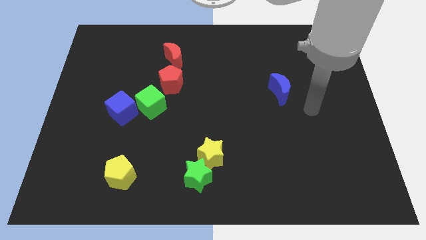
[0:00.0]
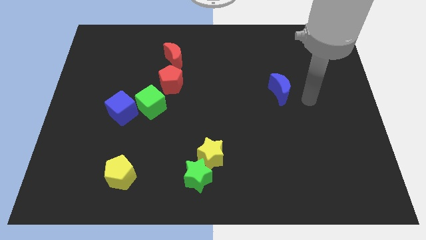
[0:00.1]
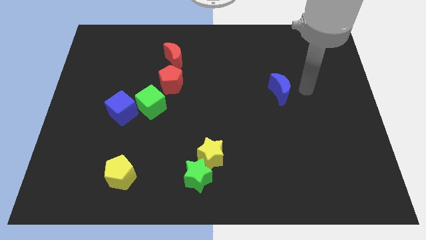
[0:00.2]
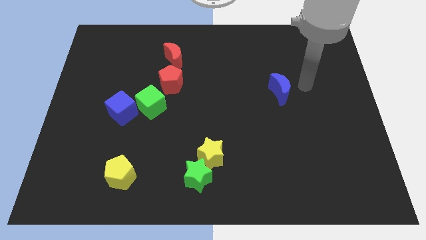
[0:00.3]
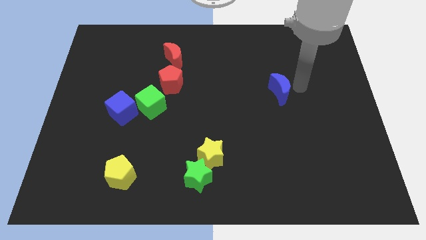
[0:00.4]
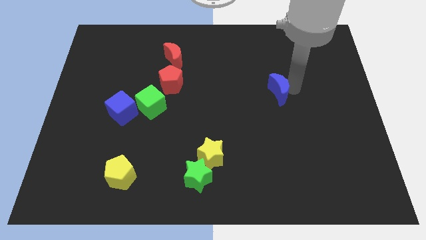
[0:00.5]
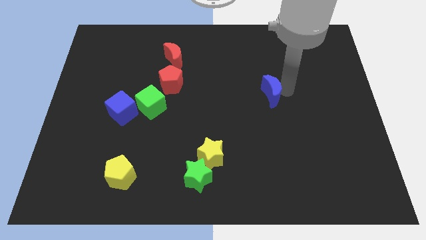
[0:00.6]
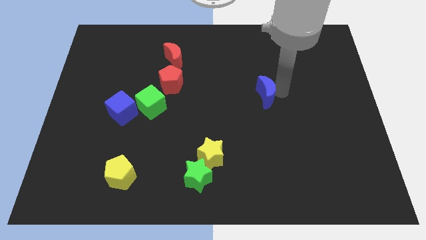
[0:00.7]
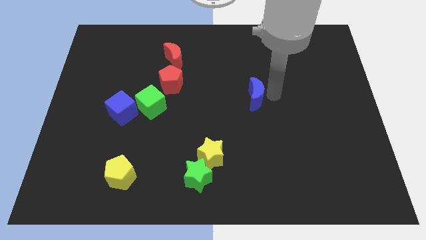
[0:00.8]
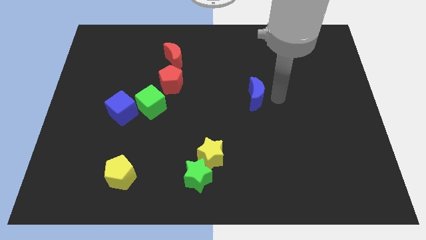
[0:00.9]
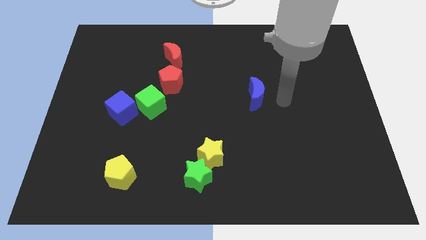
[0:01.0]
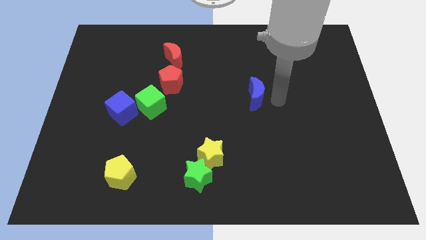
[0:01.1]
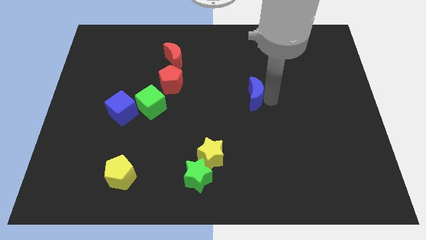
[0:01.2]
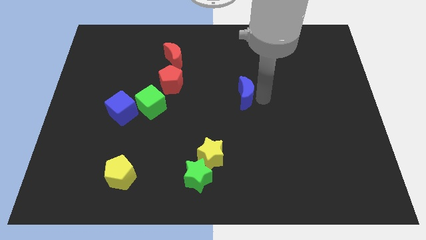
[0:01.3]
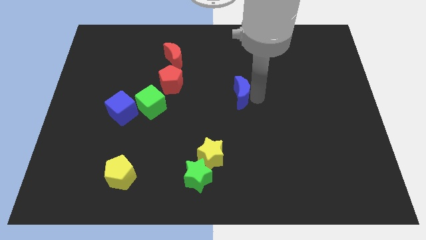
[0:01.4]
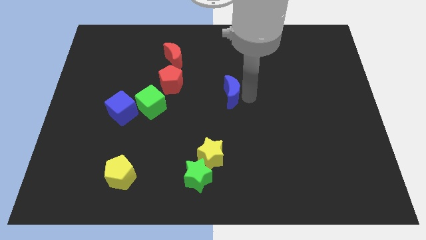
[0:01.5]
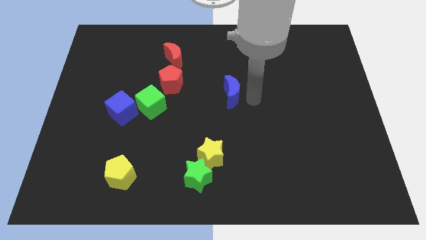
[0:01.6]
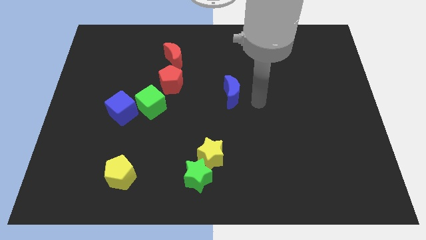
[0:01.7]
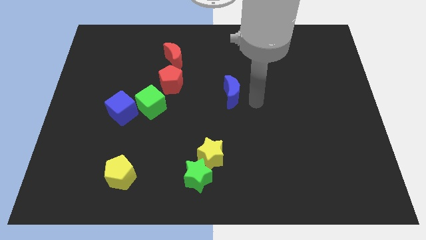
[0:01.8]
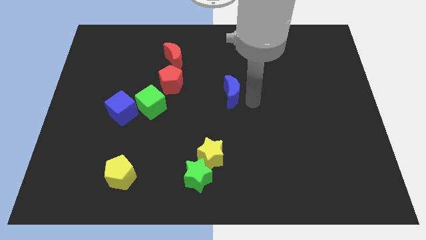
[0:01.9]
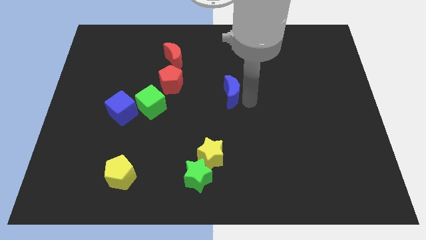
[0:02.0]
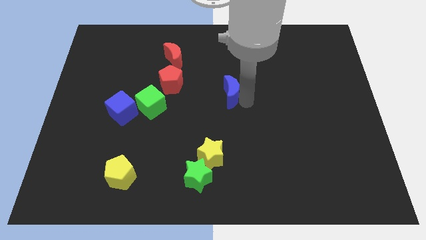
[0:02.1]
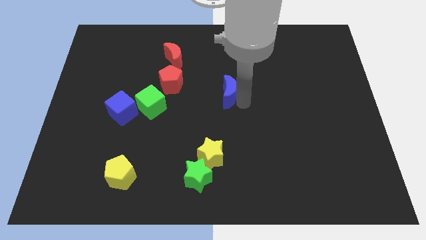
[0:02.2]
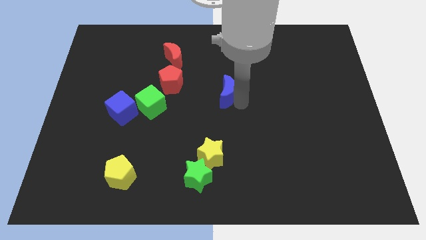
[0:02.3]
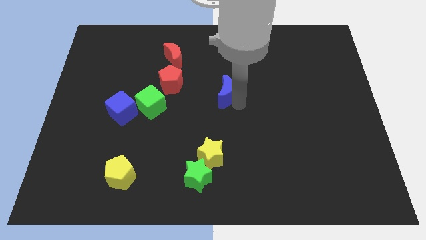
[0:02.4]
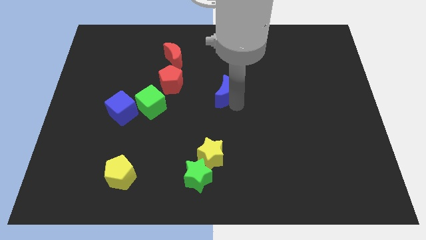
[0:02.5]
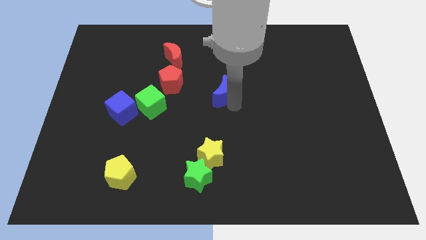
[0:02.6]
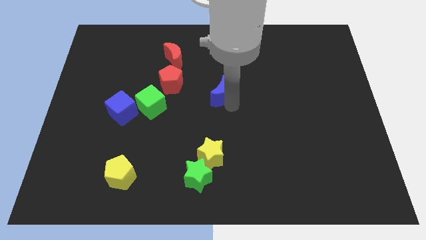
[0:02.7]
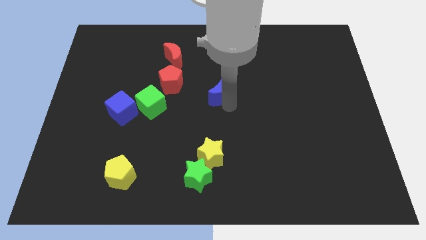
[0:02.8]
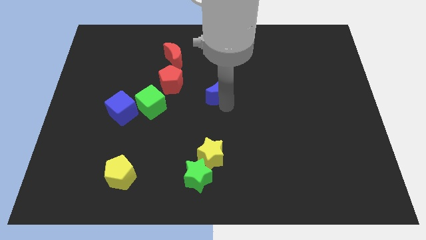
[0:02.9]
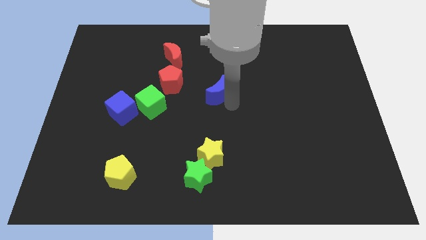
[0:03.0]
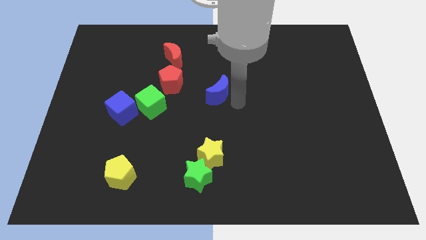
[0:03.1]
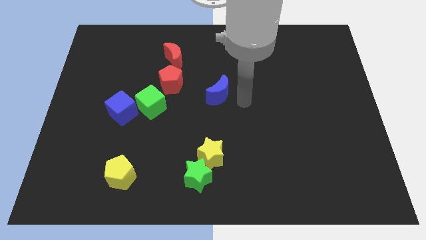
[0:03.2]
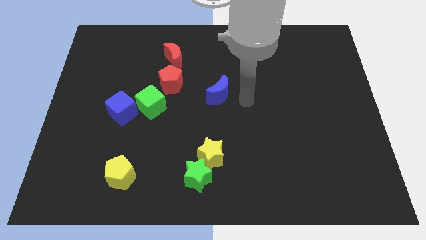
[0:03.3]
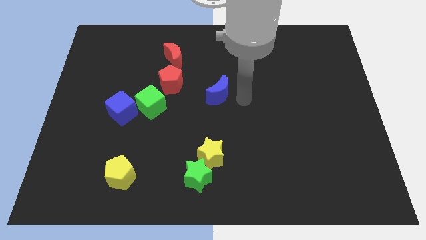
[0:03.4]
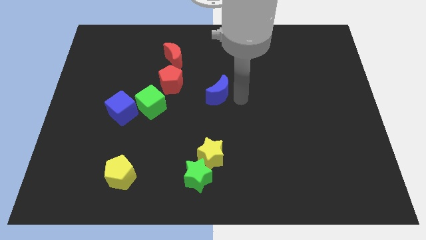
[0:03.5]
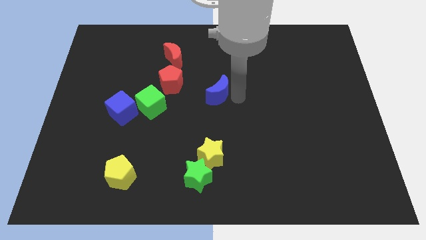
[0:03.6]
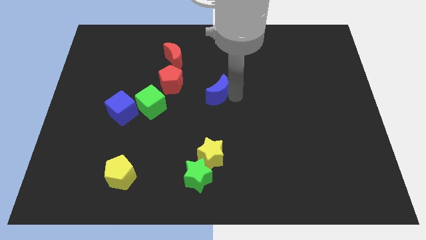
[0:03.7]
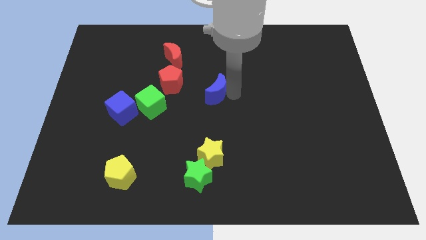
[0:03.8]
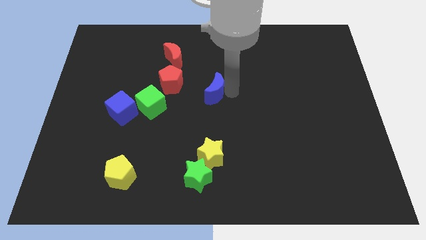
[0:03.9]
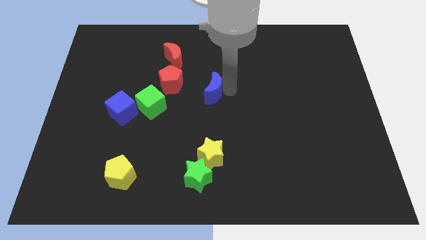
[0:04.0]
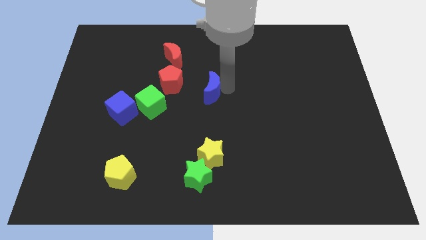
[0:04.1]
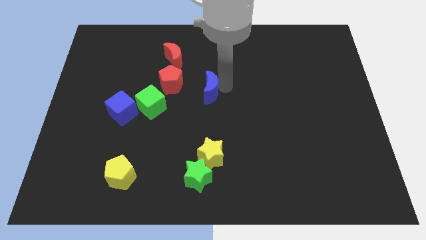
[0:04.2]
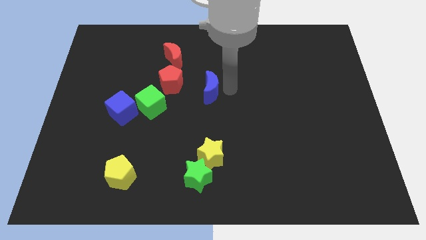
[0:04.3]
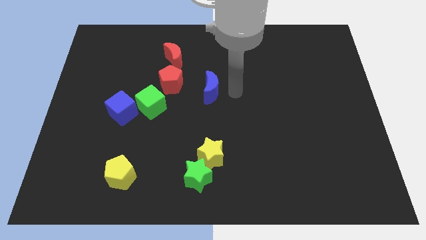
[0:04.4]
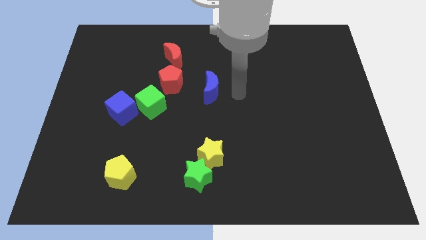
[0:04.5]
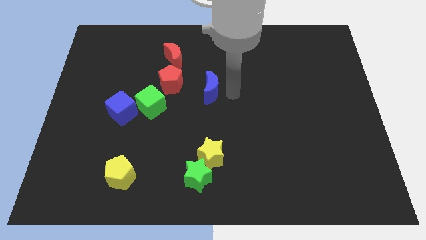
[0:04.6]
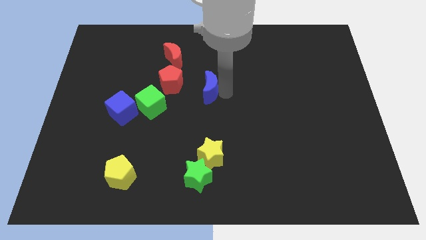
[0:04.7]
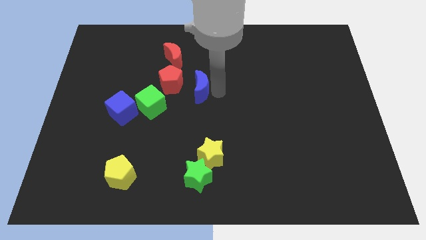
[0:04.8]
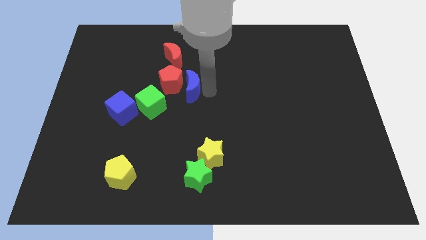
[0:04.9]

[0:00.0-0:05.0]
put the blue moon close to the red pentagon

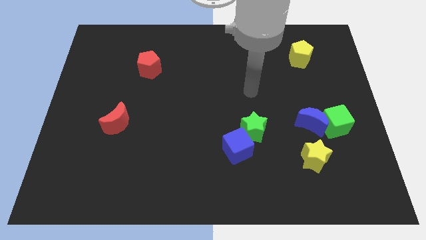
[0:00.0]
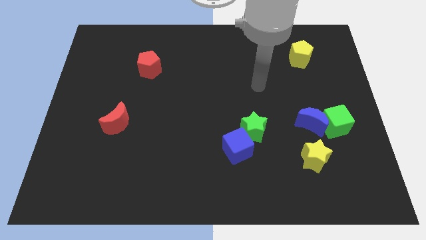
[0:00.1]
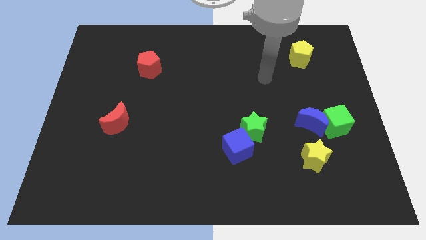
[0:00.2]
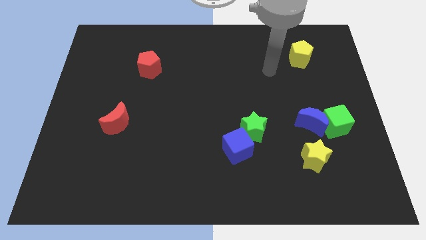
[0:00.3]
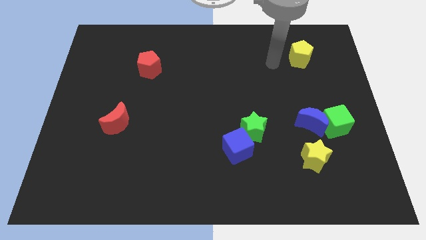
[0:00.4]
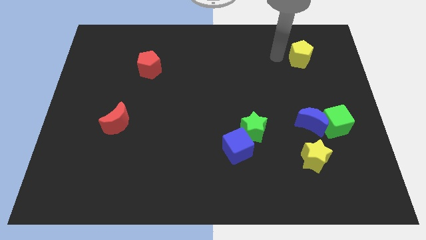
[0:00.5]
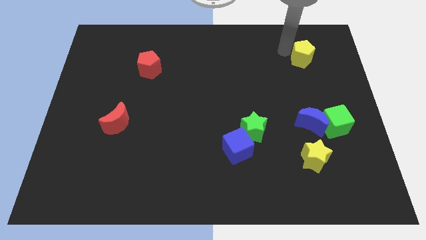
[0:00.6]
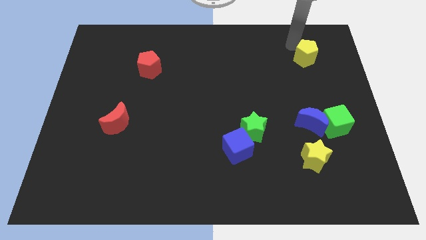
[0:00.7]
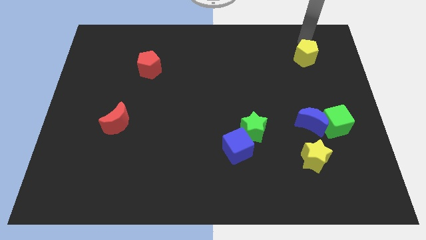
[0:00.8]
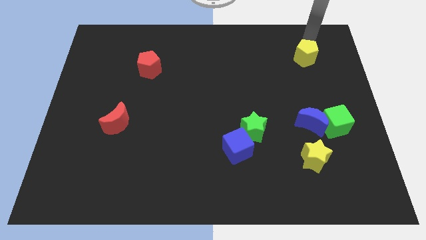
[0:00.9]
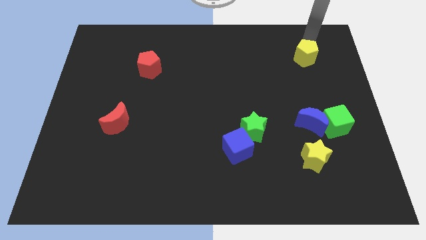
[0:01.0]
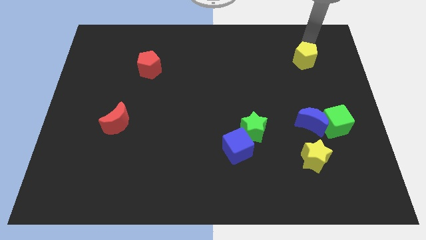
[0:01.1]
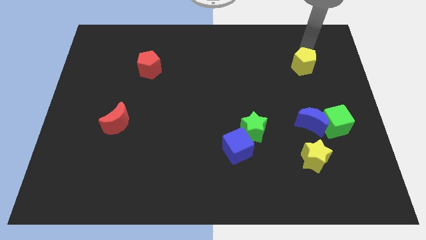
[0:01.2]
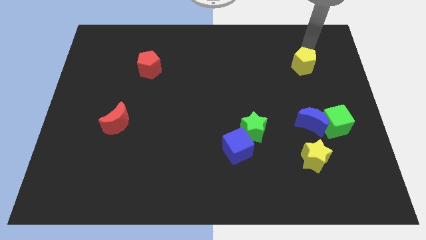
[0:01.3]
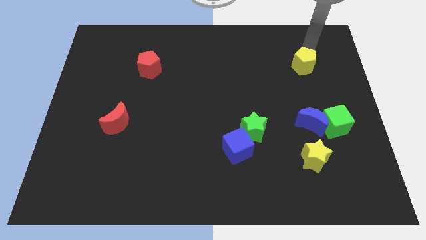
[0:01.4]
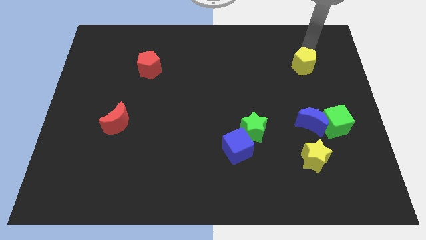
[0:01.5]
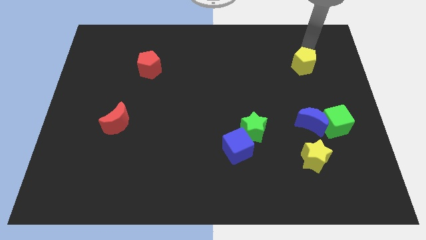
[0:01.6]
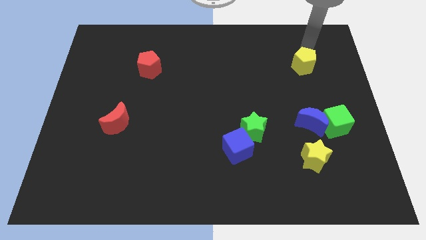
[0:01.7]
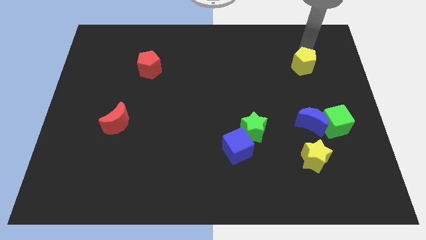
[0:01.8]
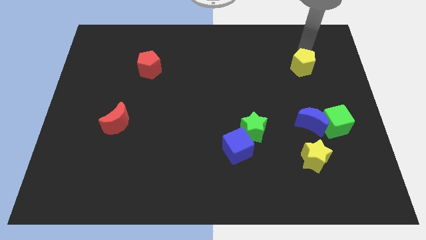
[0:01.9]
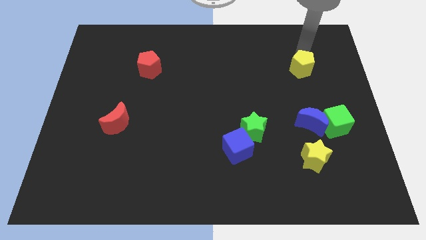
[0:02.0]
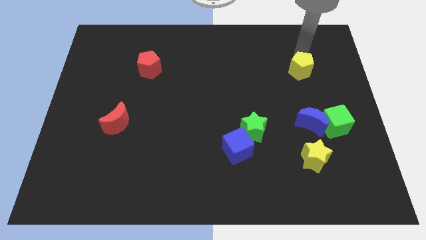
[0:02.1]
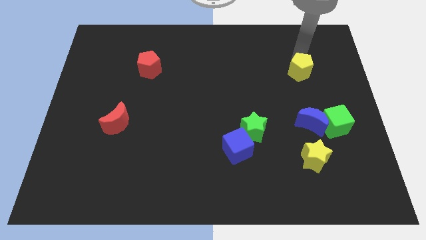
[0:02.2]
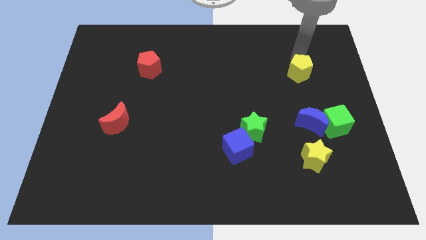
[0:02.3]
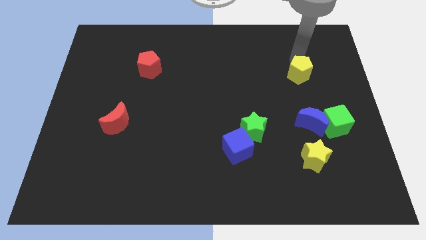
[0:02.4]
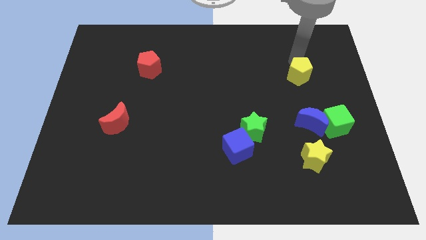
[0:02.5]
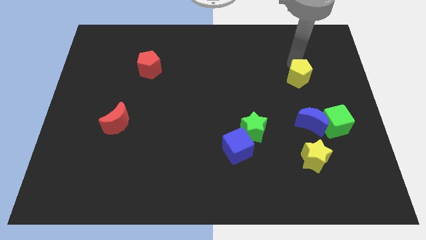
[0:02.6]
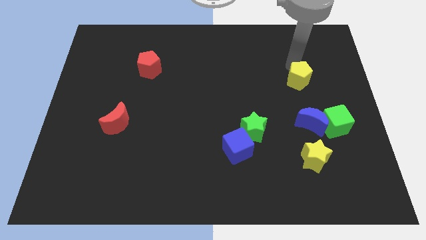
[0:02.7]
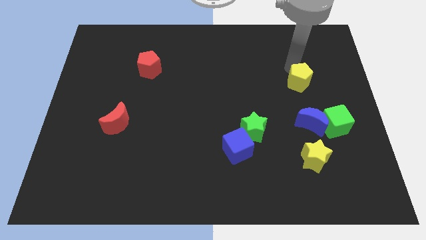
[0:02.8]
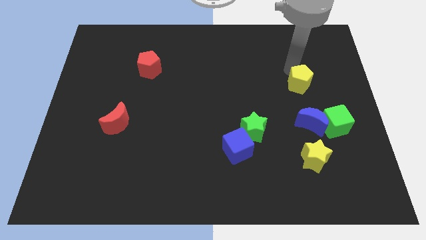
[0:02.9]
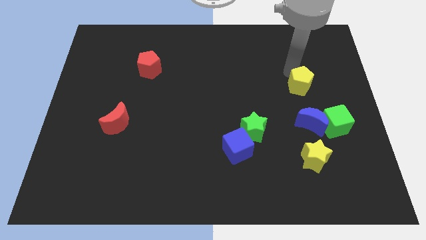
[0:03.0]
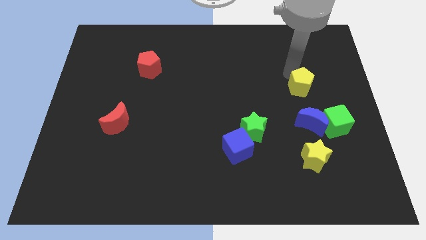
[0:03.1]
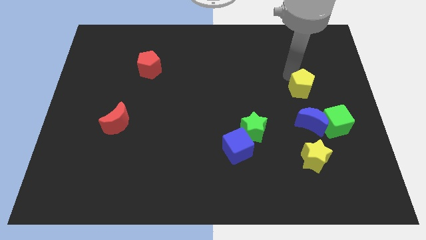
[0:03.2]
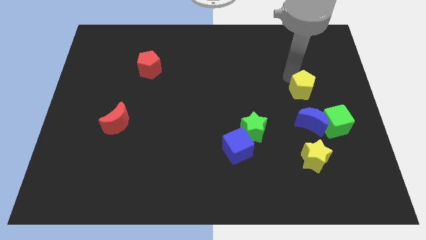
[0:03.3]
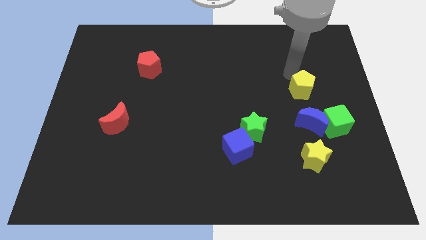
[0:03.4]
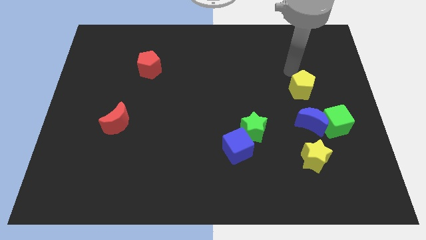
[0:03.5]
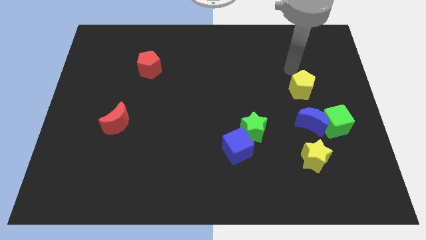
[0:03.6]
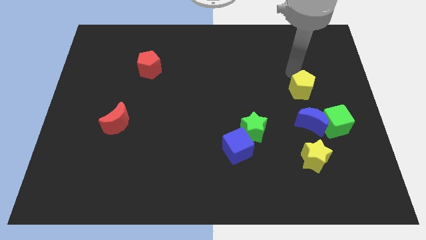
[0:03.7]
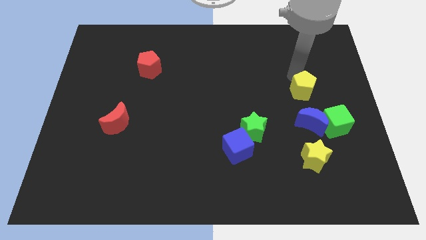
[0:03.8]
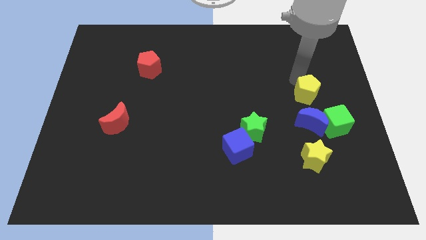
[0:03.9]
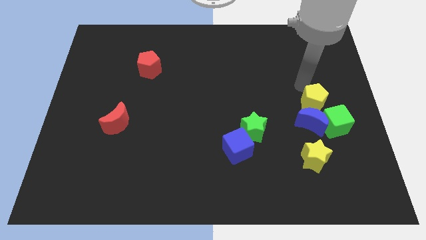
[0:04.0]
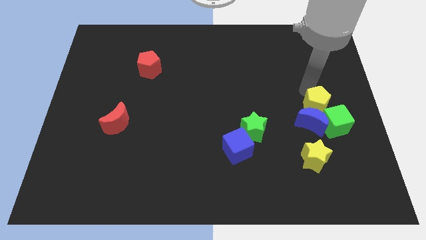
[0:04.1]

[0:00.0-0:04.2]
push the yellow pentagon next to the blue moon
